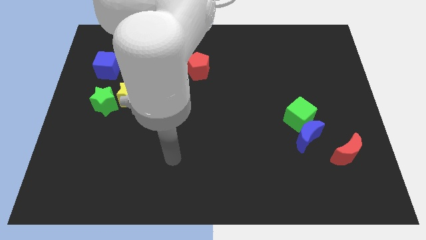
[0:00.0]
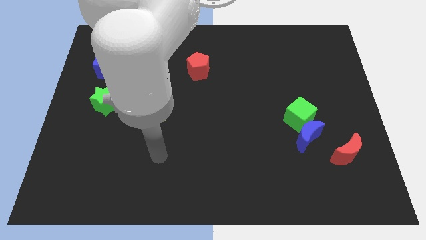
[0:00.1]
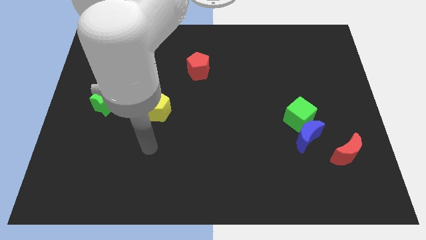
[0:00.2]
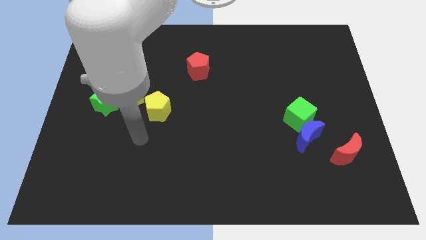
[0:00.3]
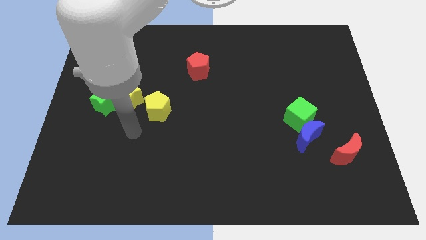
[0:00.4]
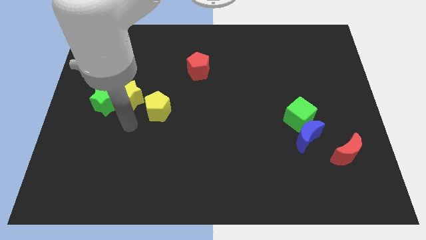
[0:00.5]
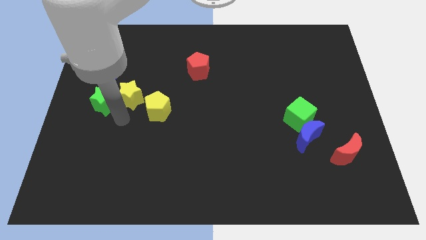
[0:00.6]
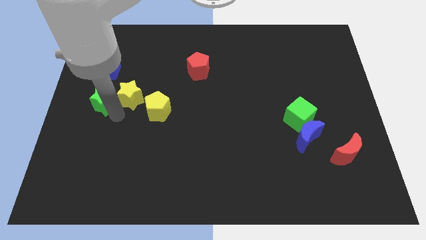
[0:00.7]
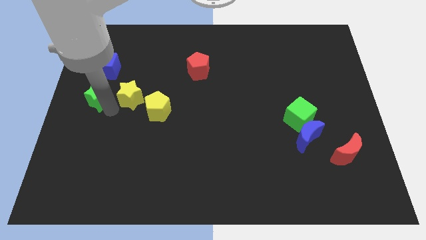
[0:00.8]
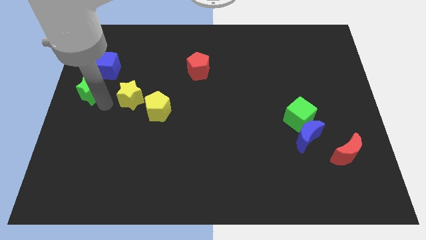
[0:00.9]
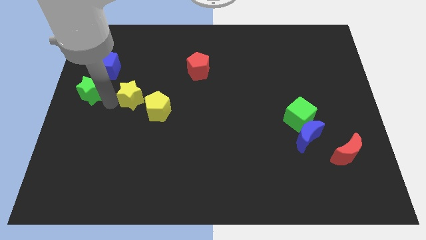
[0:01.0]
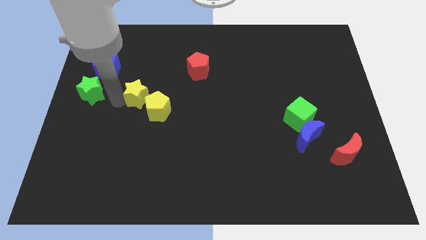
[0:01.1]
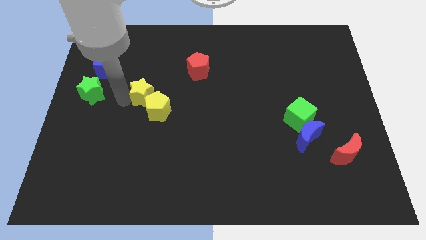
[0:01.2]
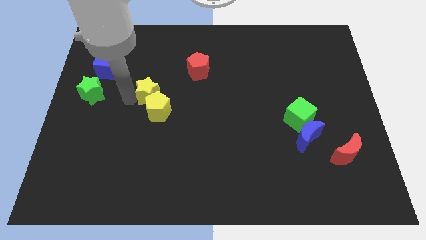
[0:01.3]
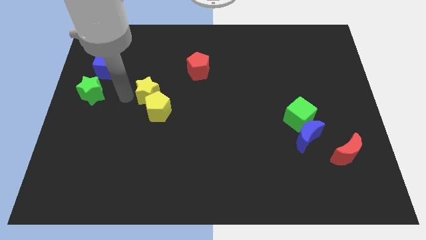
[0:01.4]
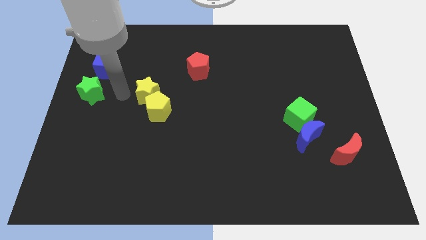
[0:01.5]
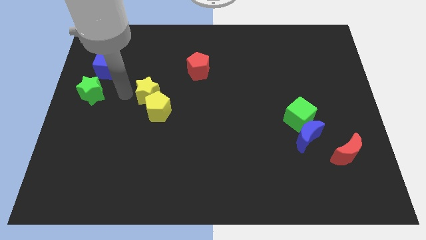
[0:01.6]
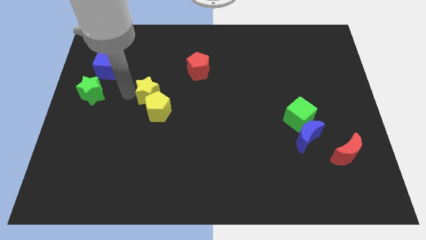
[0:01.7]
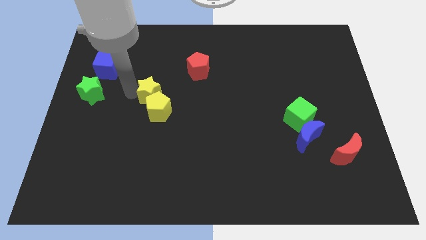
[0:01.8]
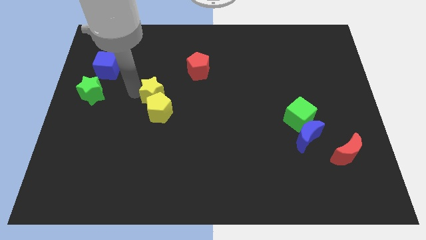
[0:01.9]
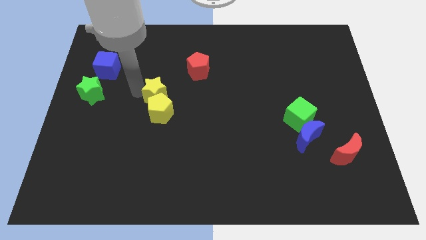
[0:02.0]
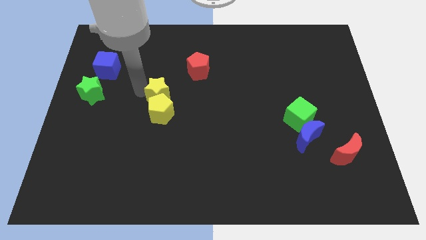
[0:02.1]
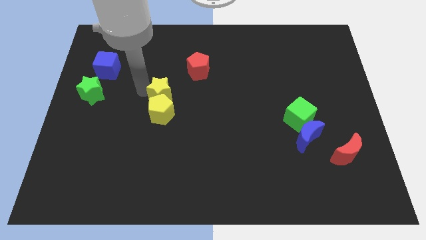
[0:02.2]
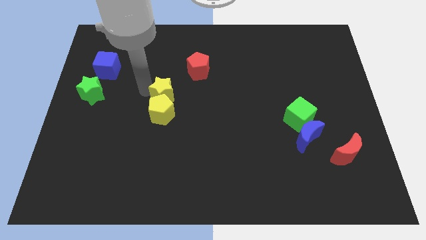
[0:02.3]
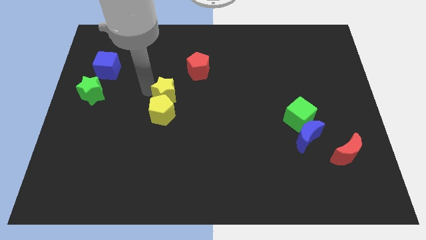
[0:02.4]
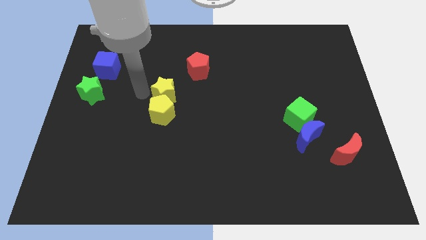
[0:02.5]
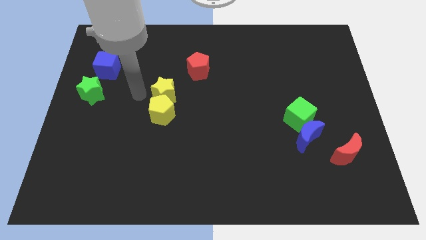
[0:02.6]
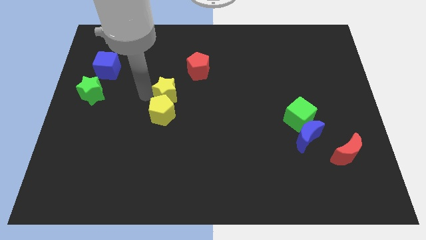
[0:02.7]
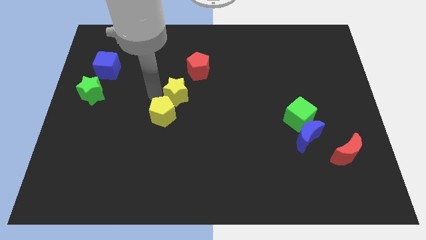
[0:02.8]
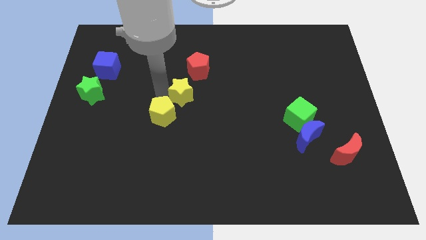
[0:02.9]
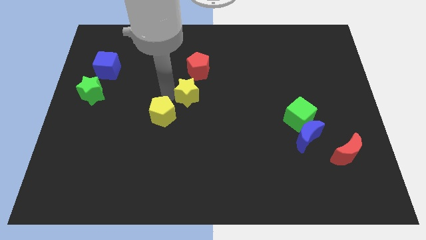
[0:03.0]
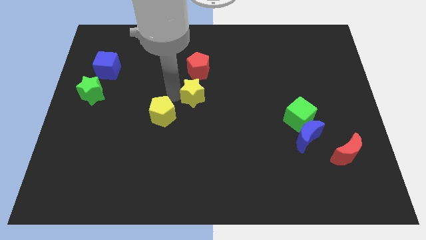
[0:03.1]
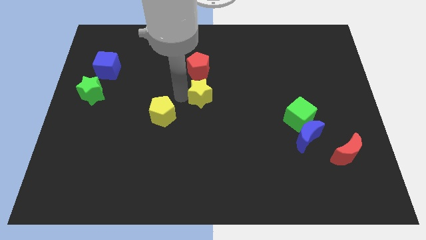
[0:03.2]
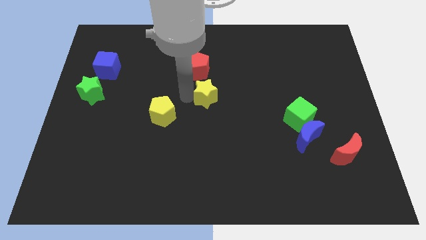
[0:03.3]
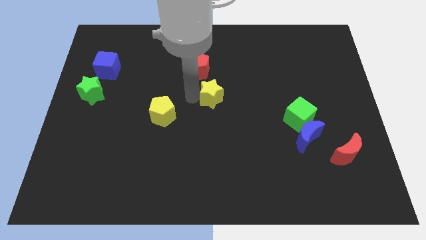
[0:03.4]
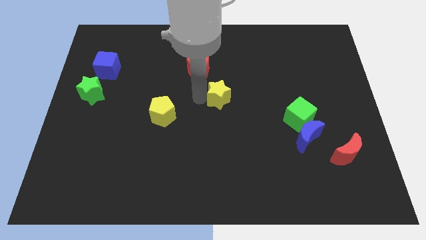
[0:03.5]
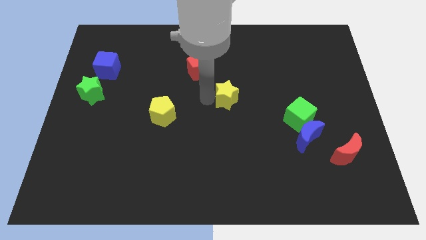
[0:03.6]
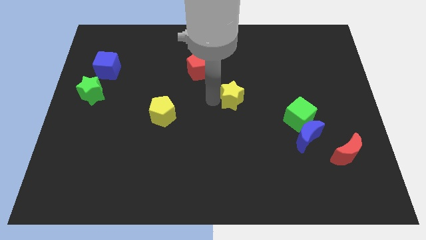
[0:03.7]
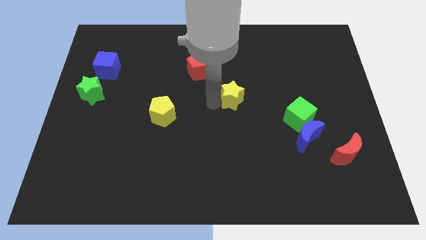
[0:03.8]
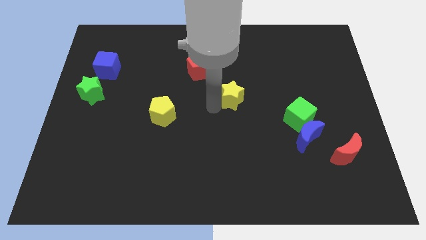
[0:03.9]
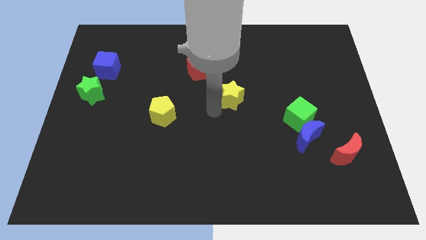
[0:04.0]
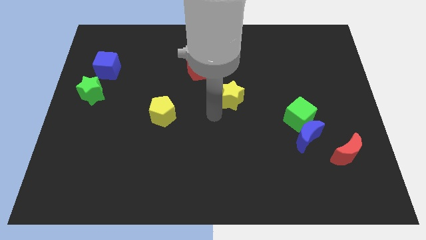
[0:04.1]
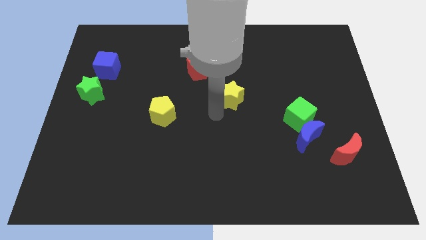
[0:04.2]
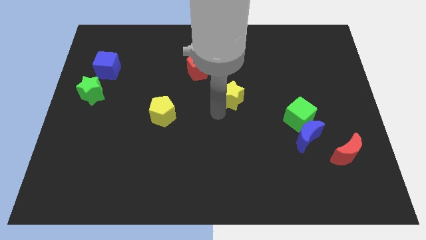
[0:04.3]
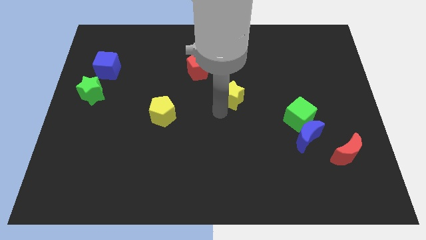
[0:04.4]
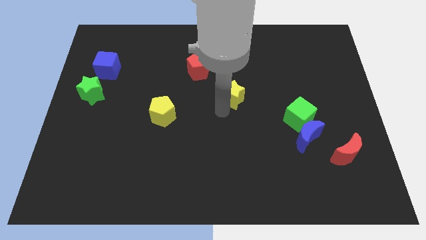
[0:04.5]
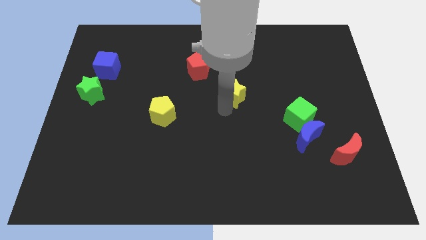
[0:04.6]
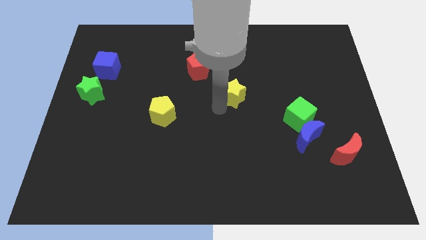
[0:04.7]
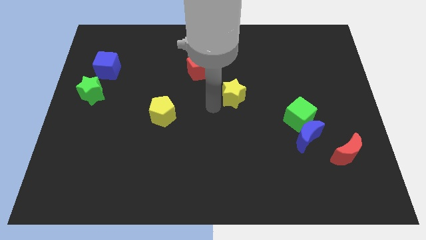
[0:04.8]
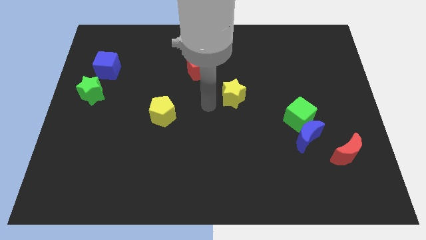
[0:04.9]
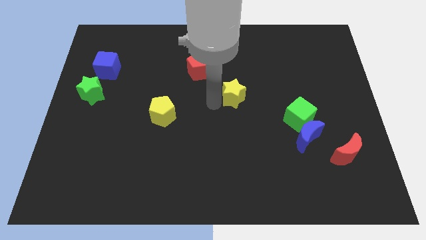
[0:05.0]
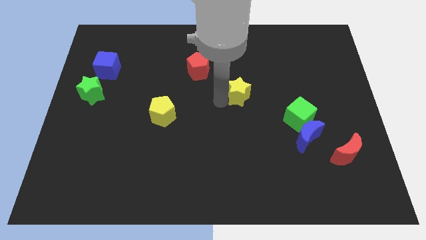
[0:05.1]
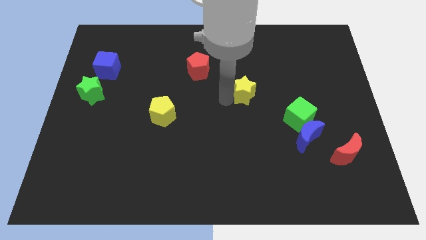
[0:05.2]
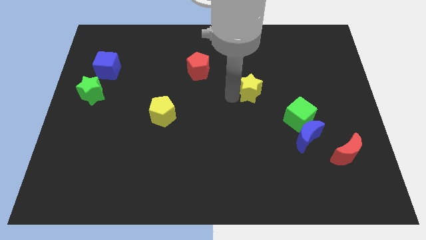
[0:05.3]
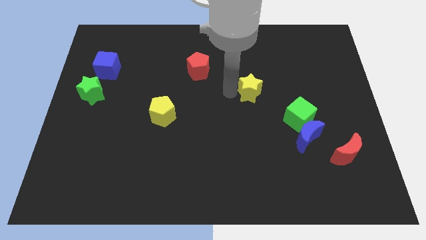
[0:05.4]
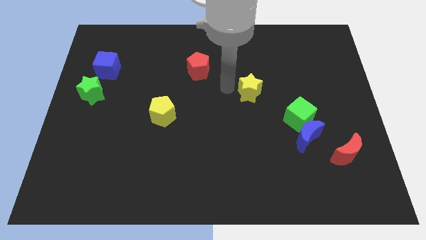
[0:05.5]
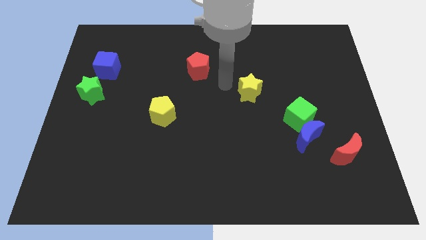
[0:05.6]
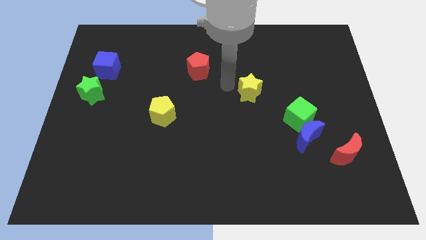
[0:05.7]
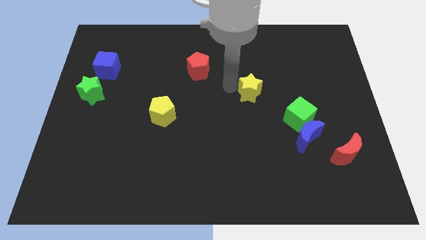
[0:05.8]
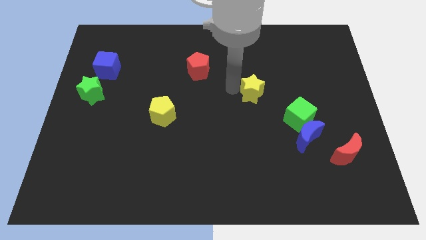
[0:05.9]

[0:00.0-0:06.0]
push the yellow star to the top left of the green cube

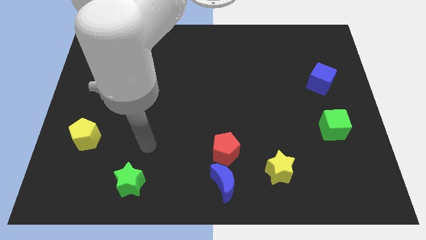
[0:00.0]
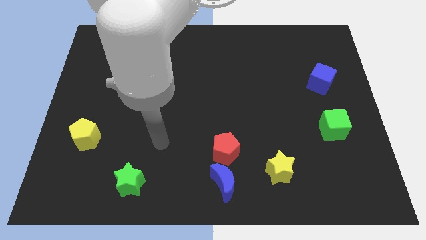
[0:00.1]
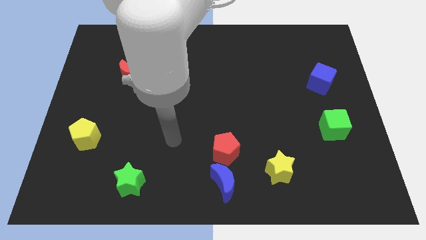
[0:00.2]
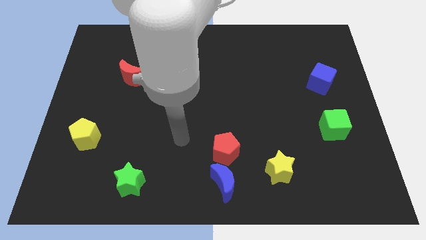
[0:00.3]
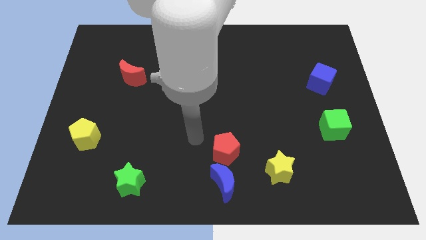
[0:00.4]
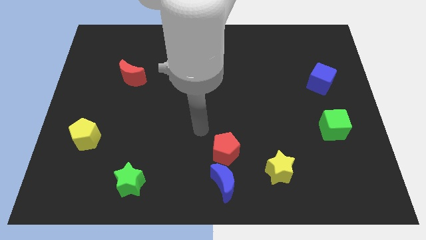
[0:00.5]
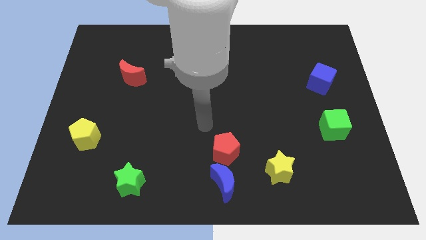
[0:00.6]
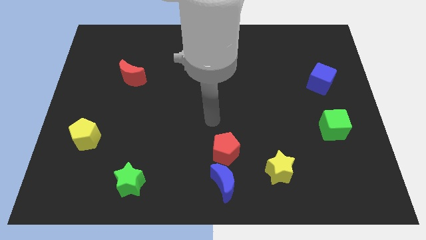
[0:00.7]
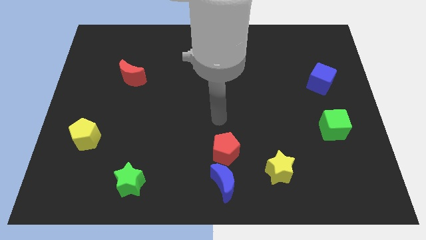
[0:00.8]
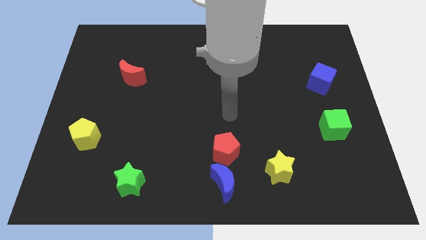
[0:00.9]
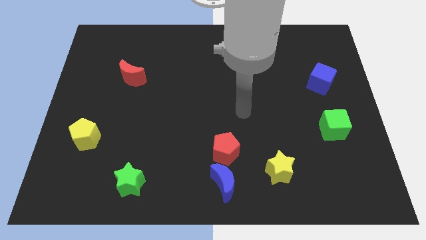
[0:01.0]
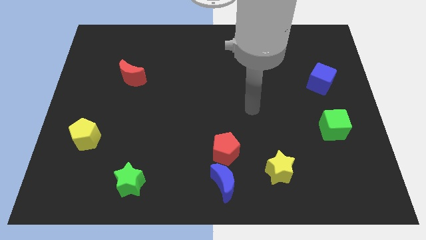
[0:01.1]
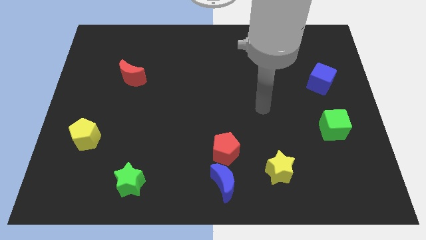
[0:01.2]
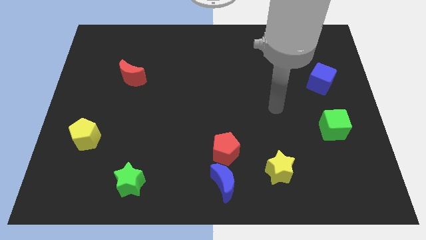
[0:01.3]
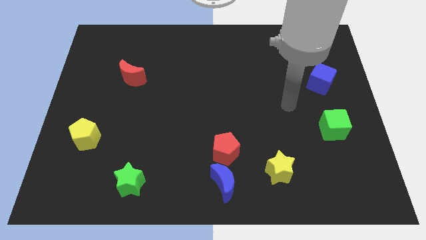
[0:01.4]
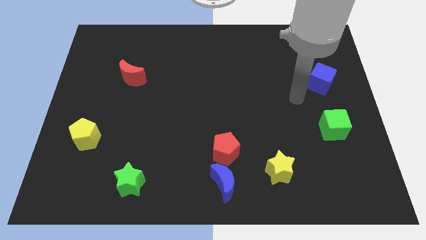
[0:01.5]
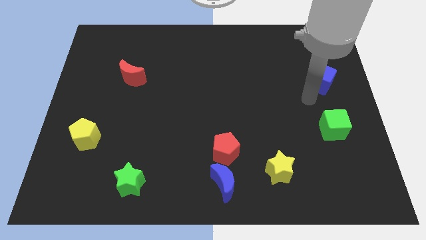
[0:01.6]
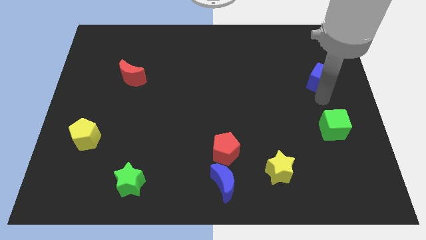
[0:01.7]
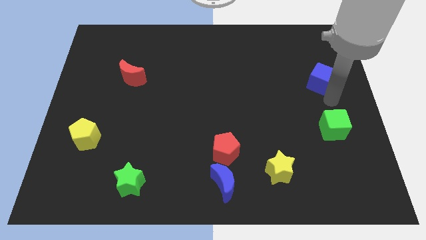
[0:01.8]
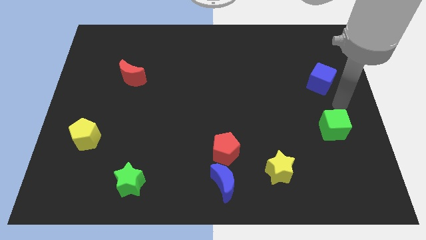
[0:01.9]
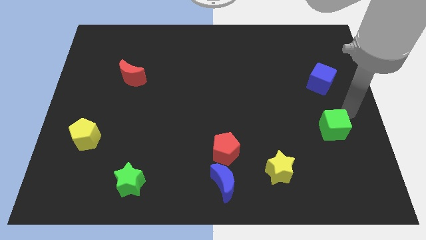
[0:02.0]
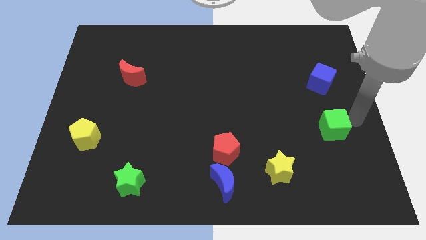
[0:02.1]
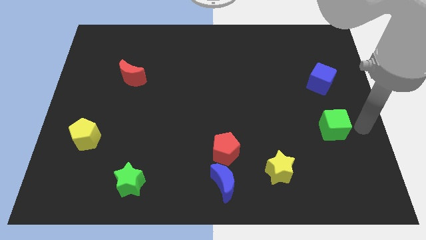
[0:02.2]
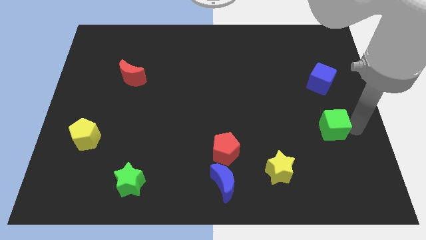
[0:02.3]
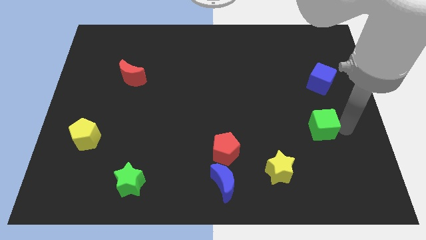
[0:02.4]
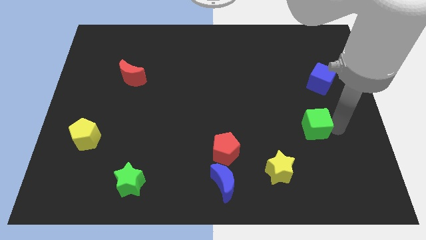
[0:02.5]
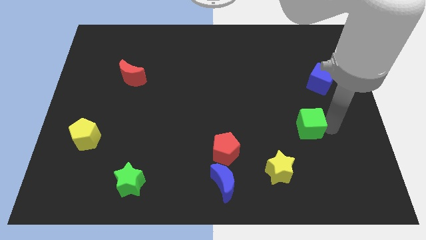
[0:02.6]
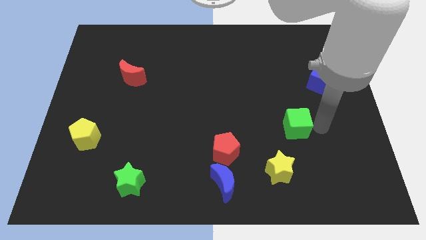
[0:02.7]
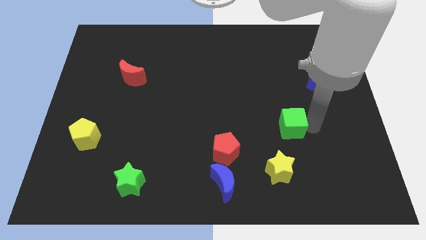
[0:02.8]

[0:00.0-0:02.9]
move the green cube above the yellow star
